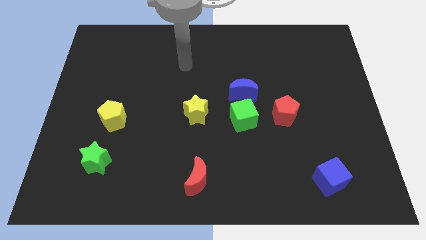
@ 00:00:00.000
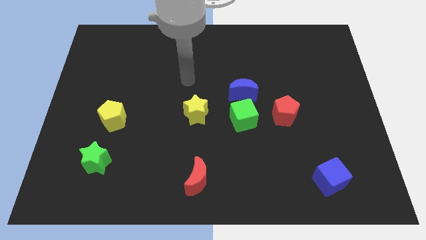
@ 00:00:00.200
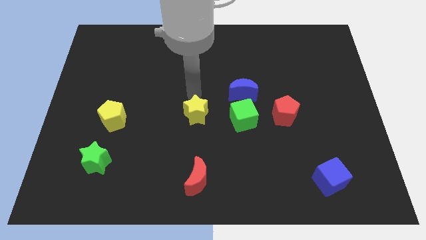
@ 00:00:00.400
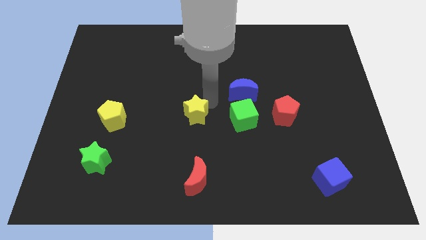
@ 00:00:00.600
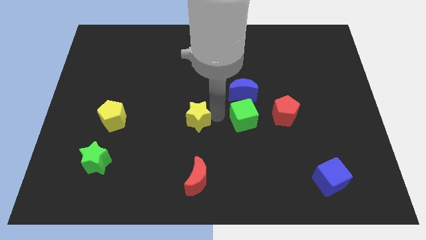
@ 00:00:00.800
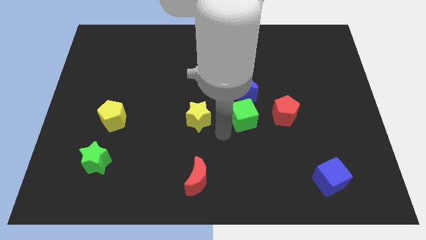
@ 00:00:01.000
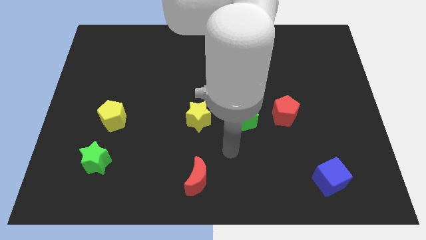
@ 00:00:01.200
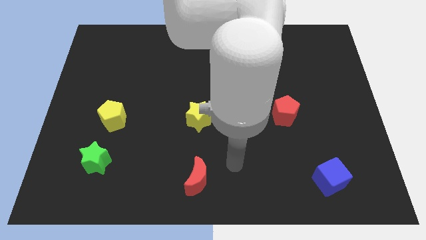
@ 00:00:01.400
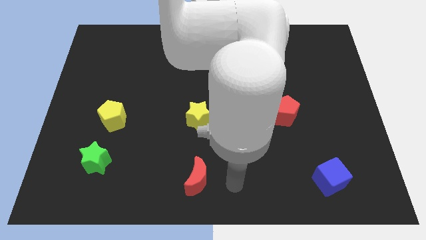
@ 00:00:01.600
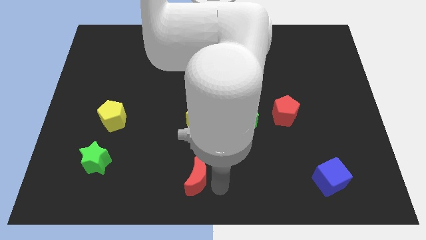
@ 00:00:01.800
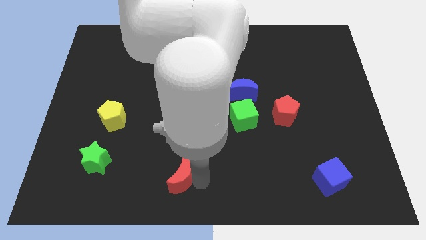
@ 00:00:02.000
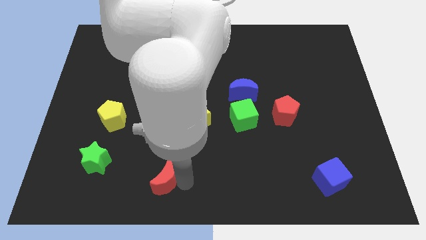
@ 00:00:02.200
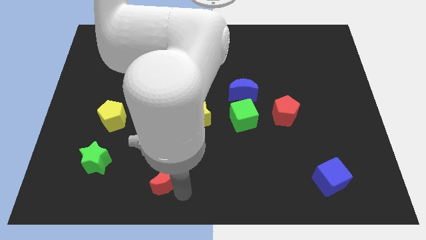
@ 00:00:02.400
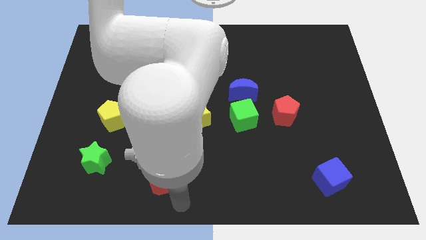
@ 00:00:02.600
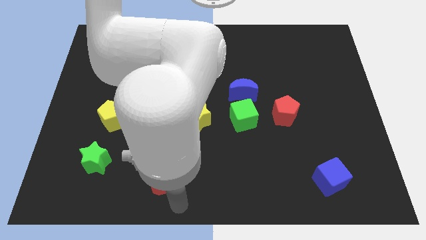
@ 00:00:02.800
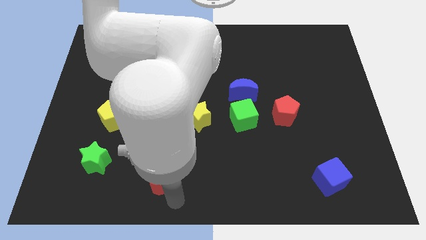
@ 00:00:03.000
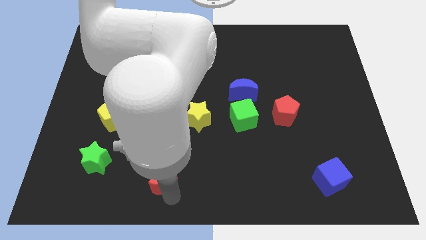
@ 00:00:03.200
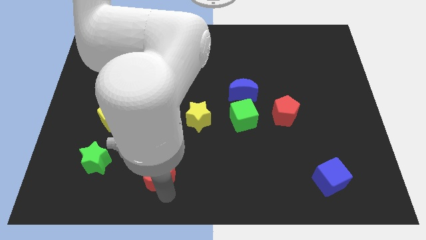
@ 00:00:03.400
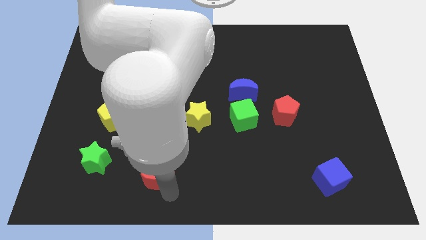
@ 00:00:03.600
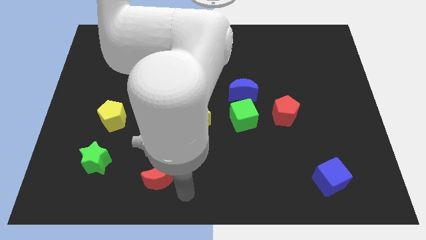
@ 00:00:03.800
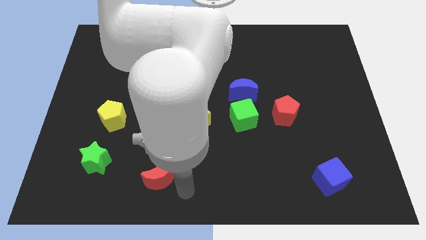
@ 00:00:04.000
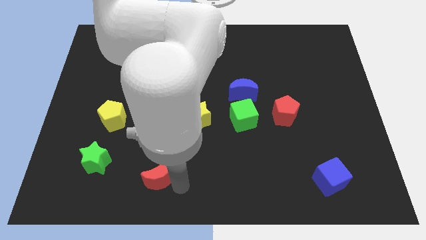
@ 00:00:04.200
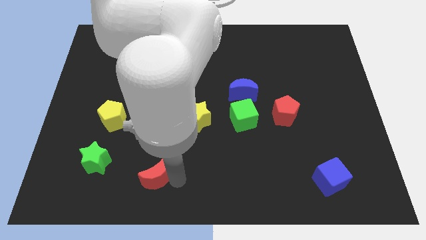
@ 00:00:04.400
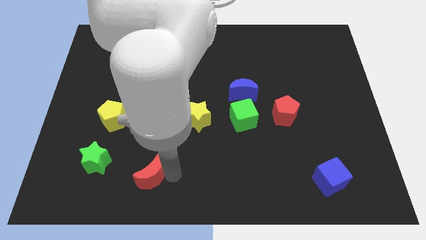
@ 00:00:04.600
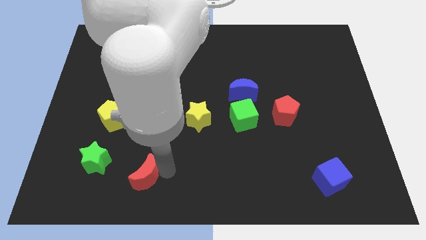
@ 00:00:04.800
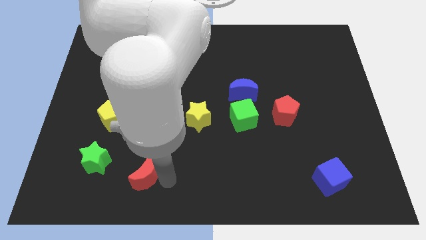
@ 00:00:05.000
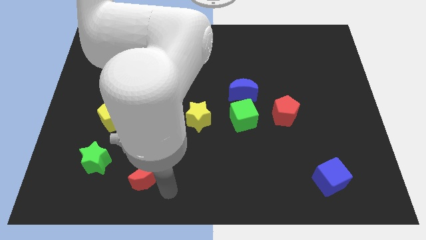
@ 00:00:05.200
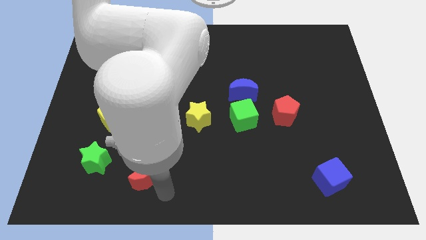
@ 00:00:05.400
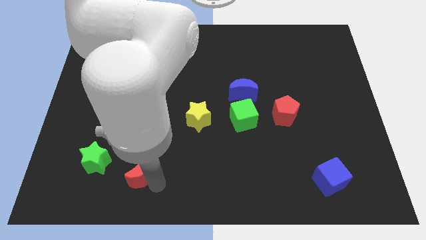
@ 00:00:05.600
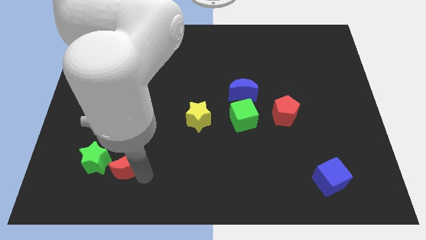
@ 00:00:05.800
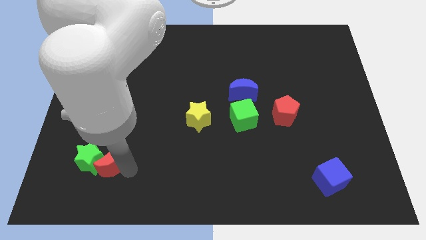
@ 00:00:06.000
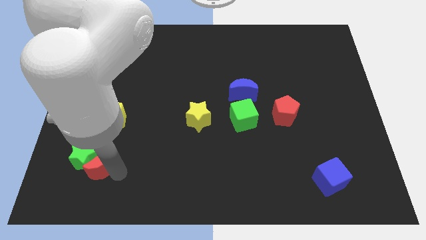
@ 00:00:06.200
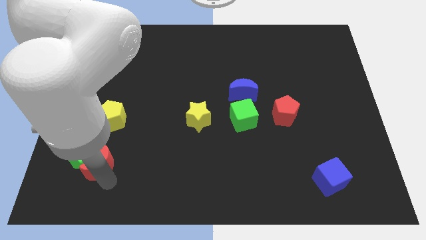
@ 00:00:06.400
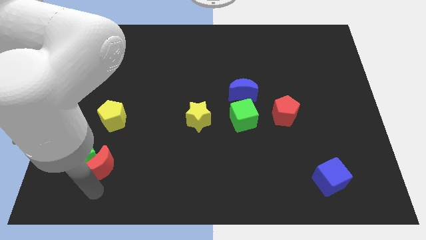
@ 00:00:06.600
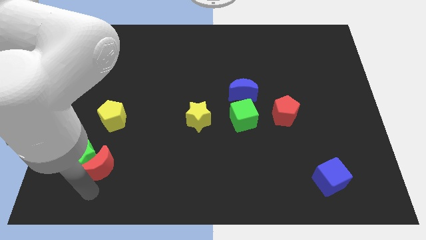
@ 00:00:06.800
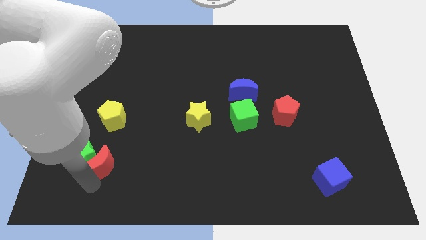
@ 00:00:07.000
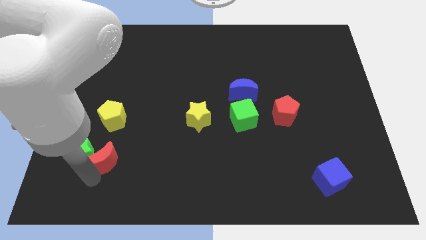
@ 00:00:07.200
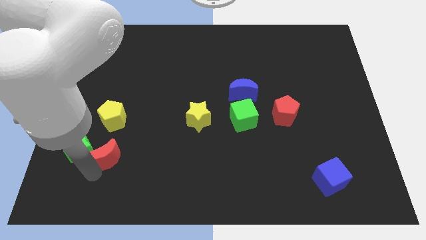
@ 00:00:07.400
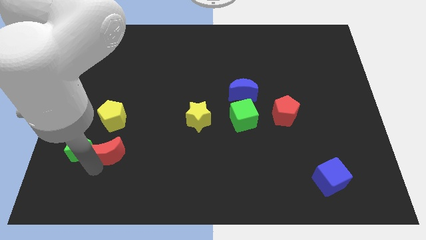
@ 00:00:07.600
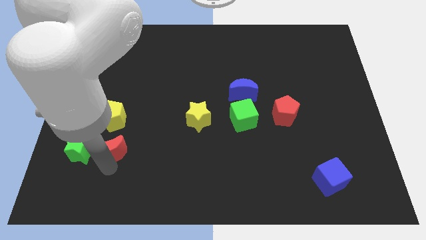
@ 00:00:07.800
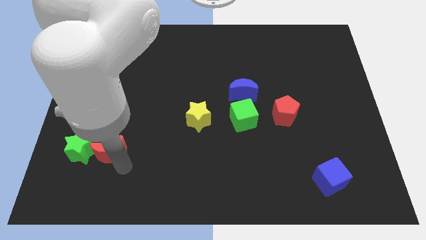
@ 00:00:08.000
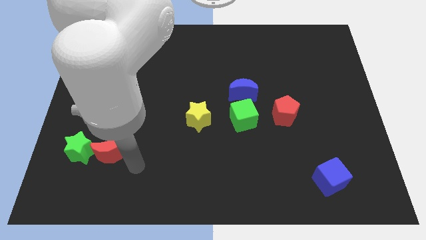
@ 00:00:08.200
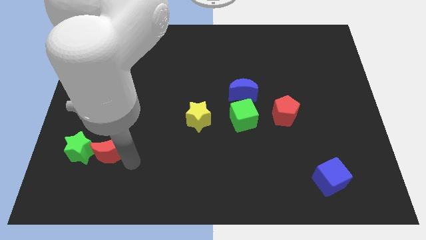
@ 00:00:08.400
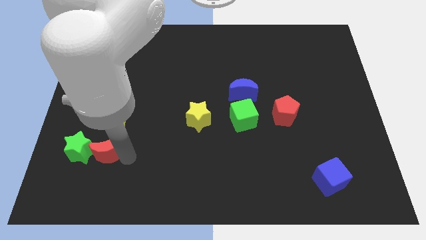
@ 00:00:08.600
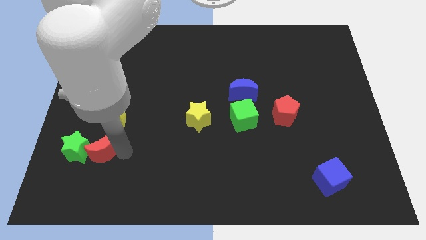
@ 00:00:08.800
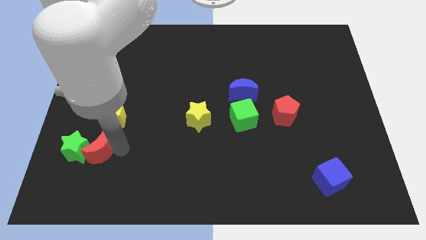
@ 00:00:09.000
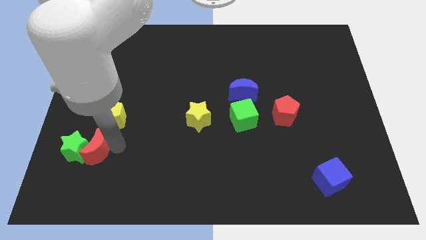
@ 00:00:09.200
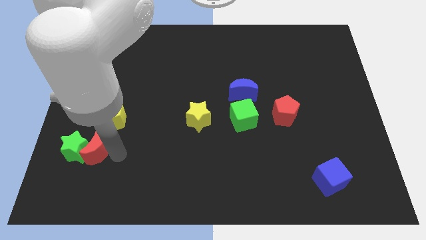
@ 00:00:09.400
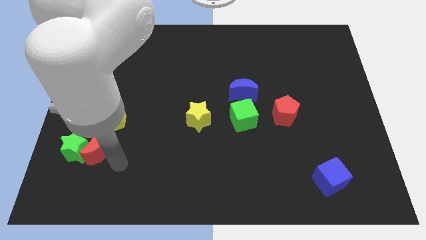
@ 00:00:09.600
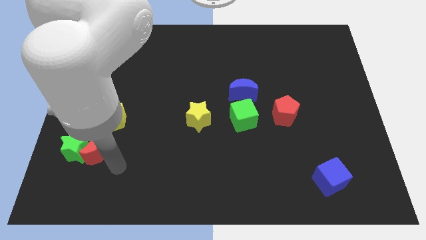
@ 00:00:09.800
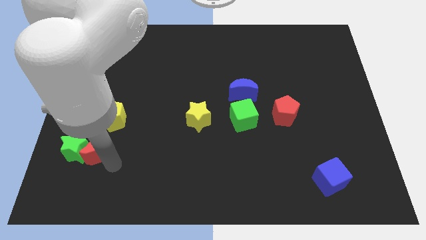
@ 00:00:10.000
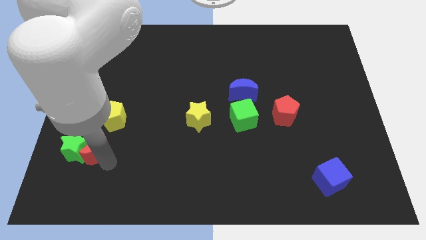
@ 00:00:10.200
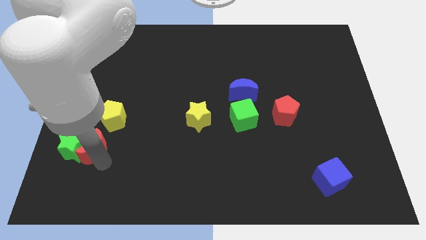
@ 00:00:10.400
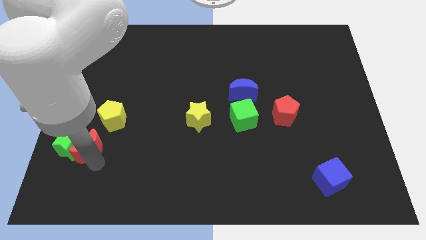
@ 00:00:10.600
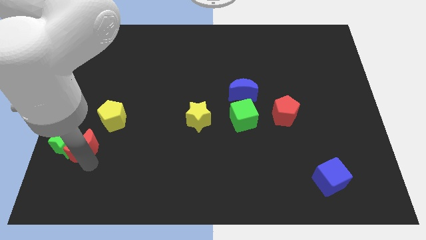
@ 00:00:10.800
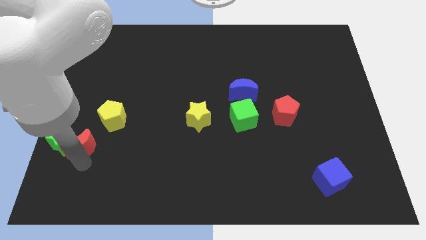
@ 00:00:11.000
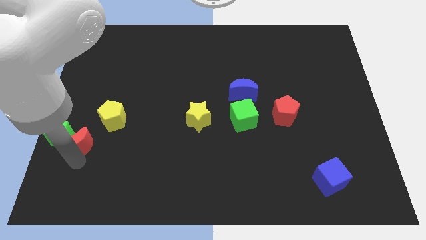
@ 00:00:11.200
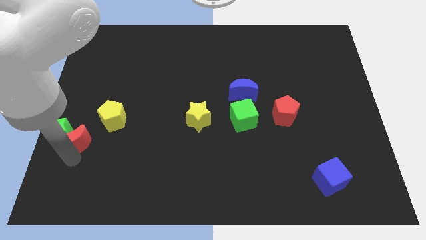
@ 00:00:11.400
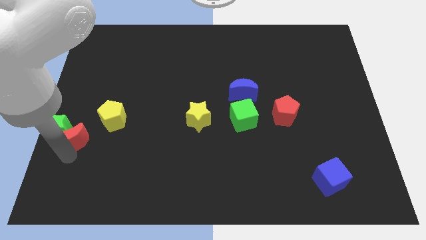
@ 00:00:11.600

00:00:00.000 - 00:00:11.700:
move the red moon to the left side

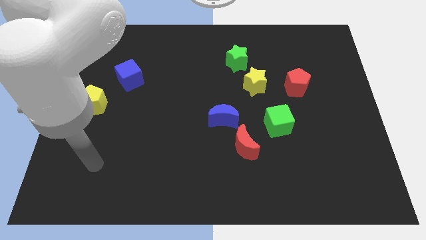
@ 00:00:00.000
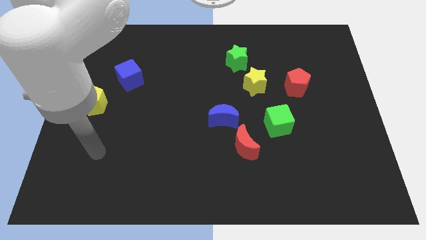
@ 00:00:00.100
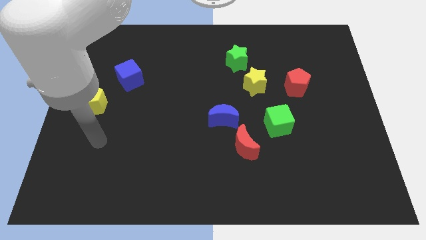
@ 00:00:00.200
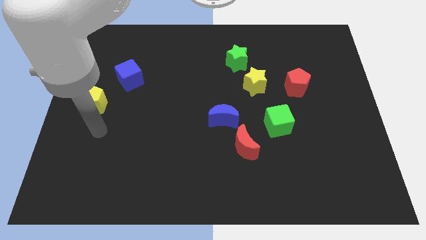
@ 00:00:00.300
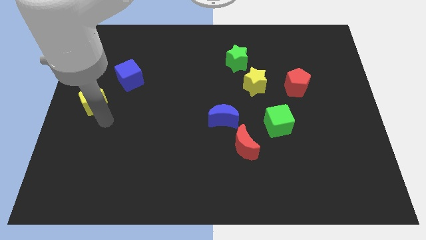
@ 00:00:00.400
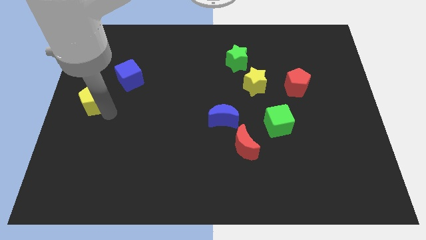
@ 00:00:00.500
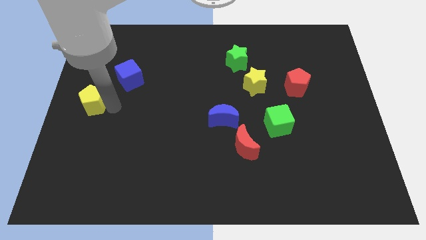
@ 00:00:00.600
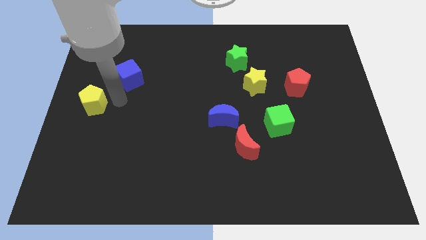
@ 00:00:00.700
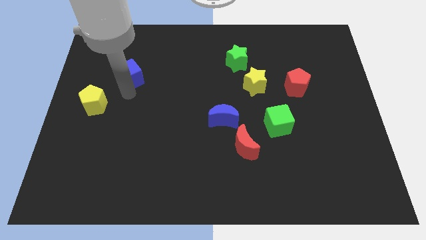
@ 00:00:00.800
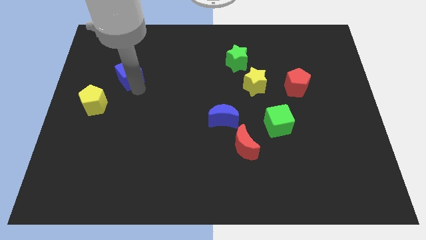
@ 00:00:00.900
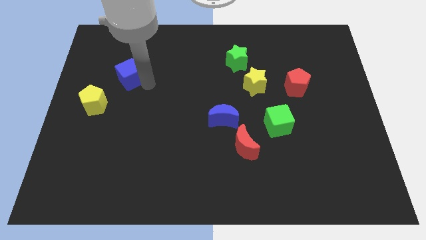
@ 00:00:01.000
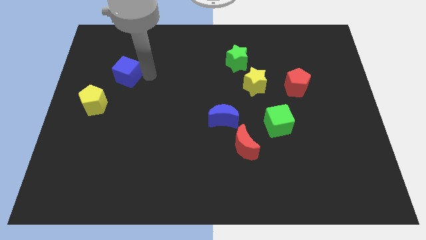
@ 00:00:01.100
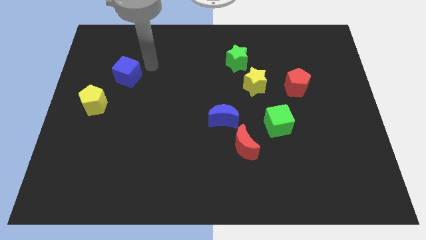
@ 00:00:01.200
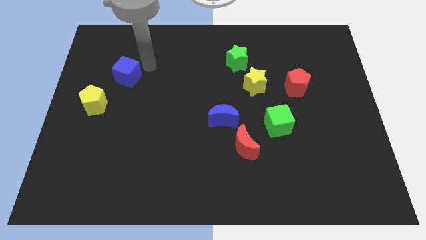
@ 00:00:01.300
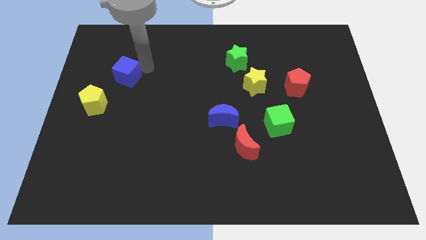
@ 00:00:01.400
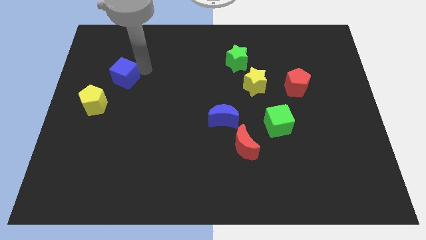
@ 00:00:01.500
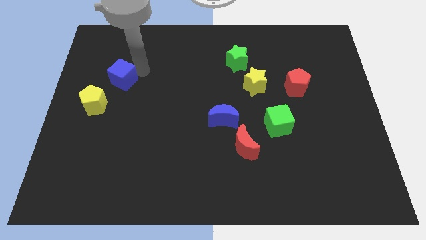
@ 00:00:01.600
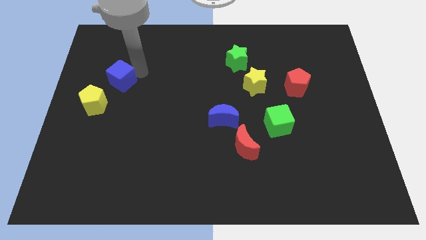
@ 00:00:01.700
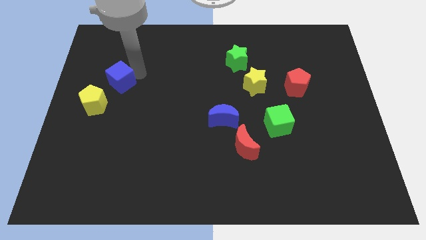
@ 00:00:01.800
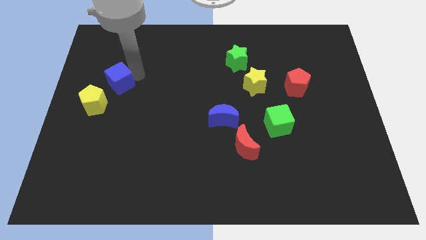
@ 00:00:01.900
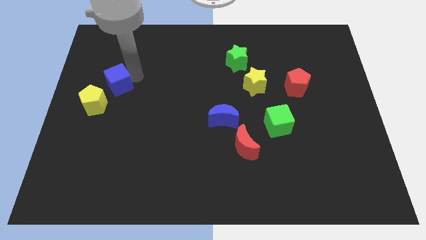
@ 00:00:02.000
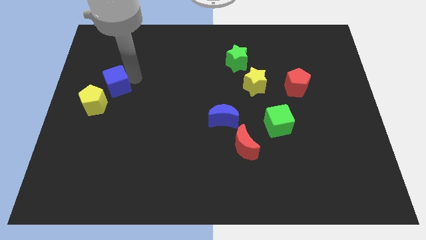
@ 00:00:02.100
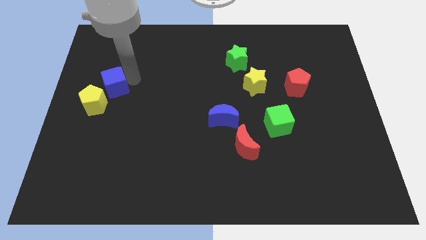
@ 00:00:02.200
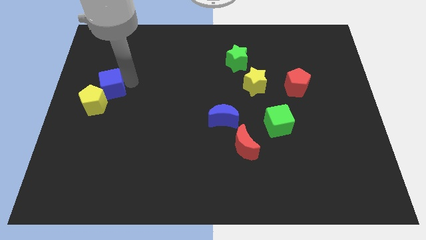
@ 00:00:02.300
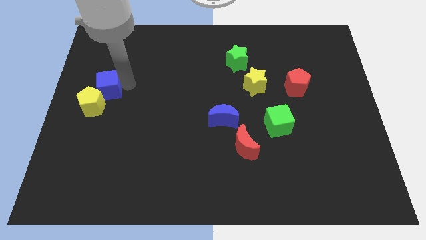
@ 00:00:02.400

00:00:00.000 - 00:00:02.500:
move the blue cube to the left side
